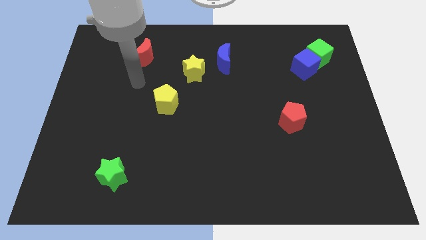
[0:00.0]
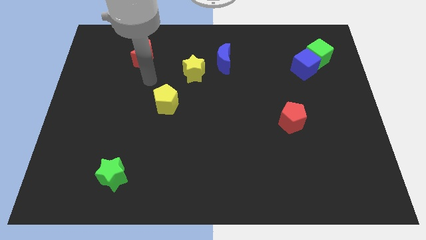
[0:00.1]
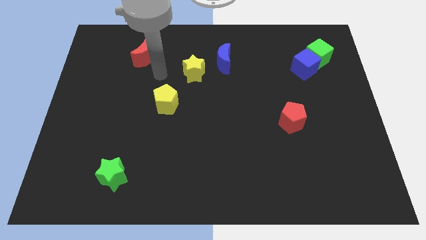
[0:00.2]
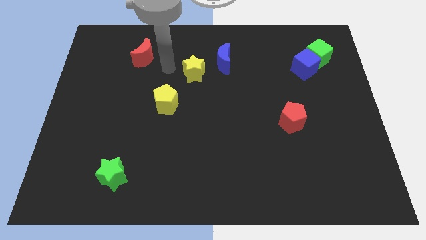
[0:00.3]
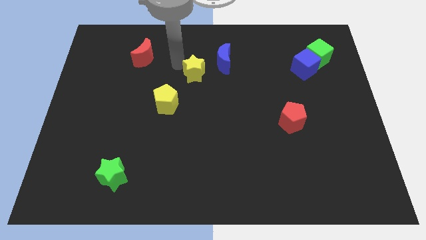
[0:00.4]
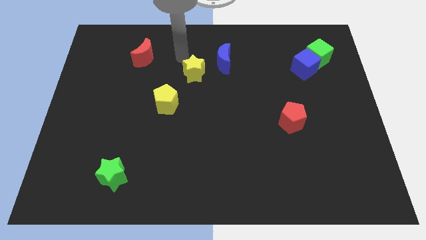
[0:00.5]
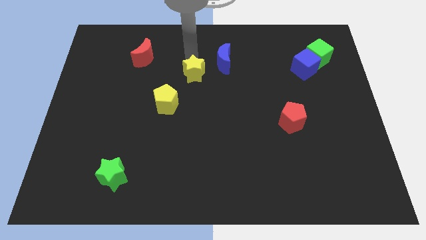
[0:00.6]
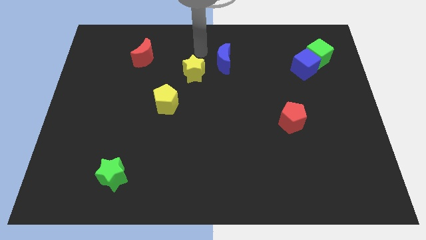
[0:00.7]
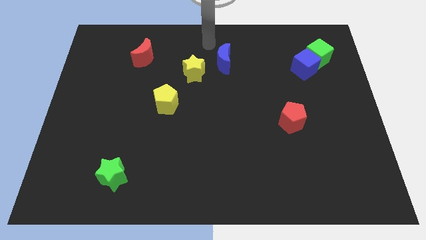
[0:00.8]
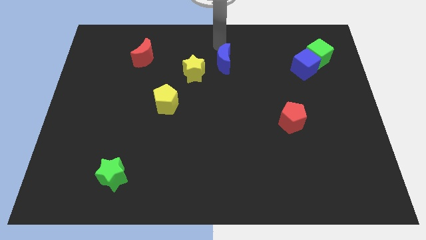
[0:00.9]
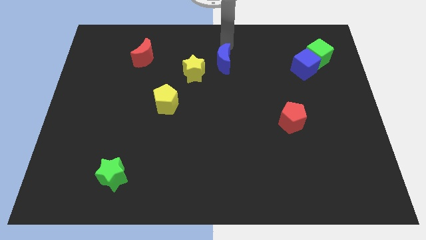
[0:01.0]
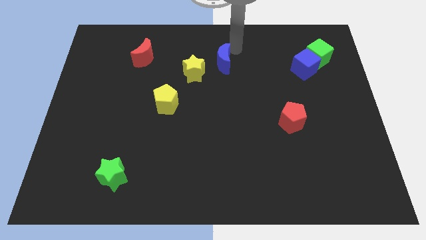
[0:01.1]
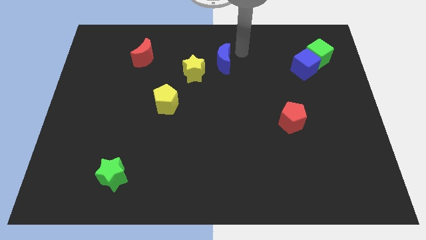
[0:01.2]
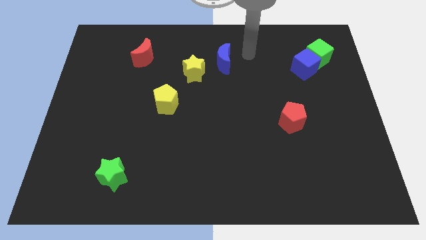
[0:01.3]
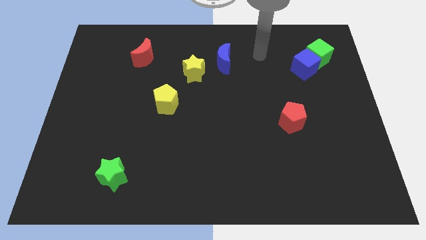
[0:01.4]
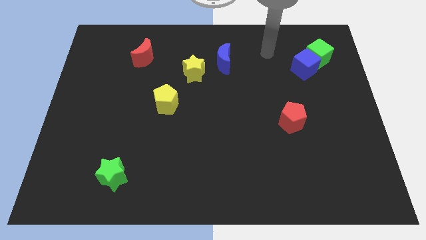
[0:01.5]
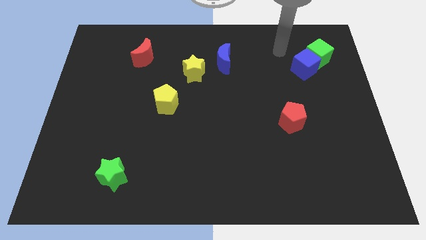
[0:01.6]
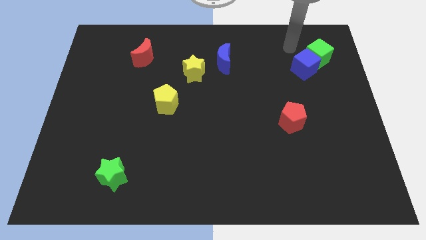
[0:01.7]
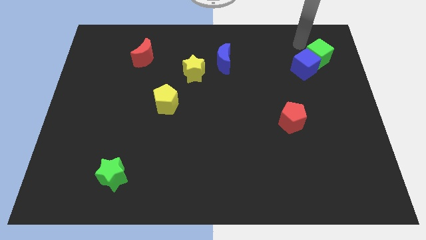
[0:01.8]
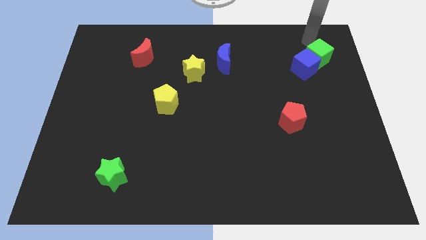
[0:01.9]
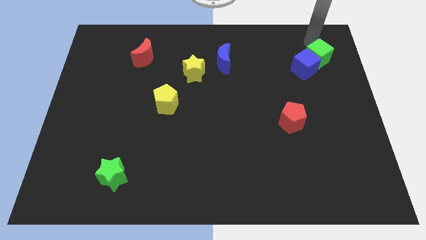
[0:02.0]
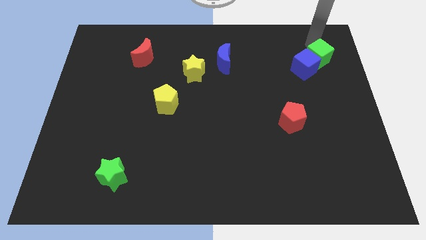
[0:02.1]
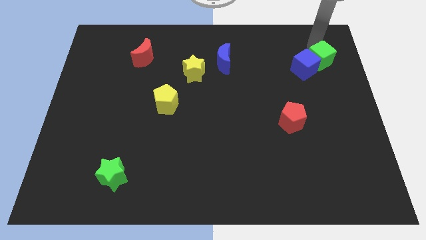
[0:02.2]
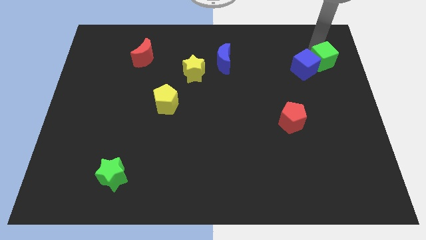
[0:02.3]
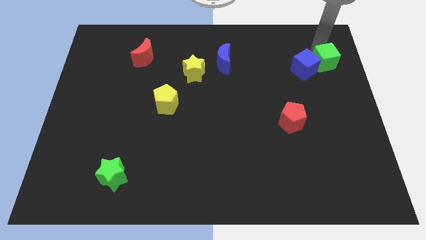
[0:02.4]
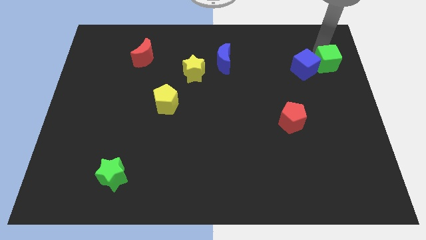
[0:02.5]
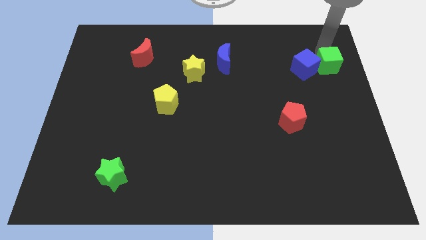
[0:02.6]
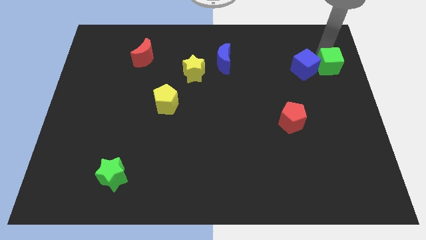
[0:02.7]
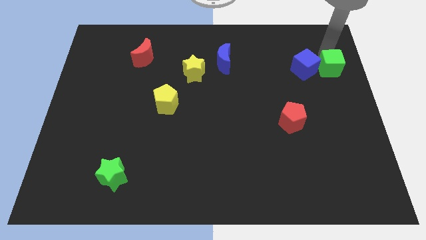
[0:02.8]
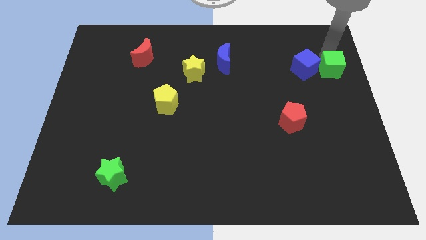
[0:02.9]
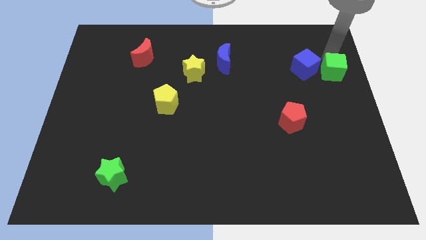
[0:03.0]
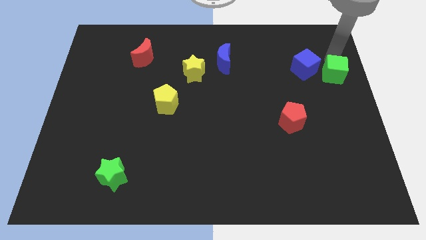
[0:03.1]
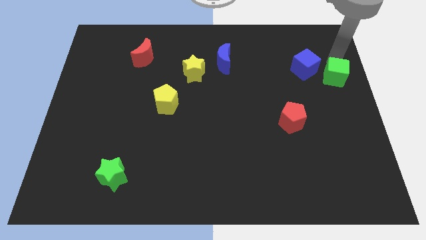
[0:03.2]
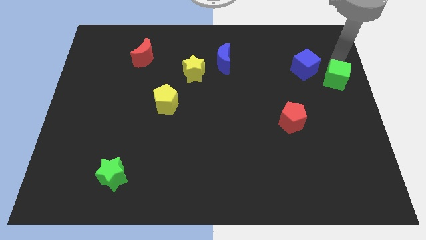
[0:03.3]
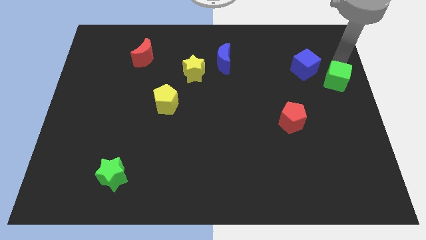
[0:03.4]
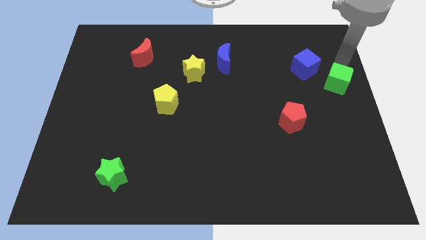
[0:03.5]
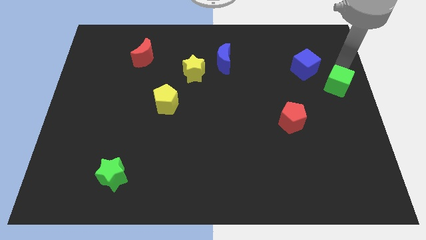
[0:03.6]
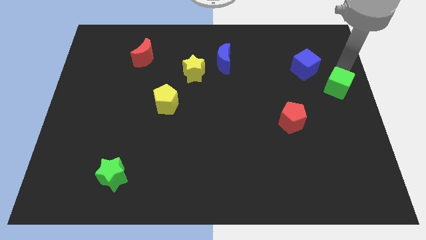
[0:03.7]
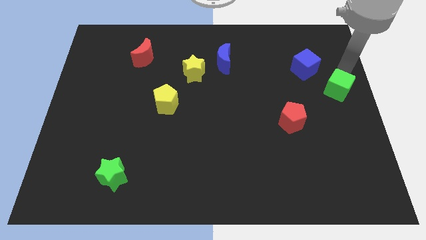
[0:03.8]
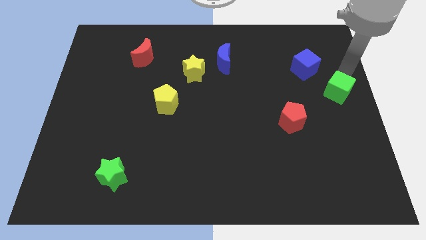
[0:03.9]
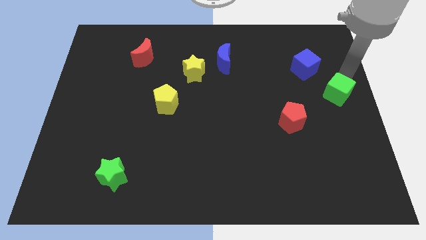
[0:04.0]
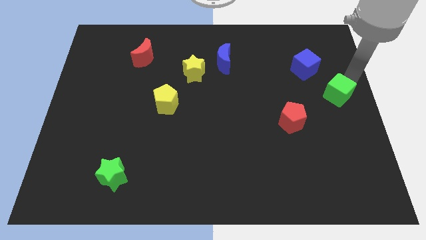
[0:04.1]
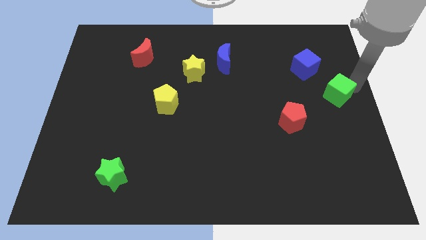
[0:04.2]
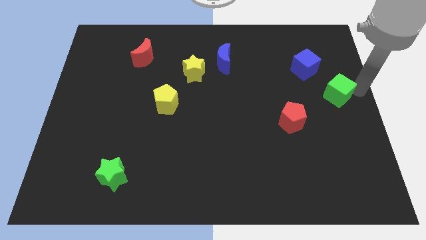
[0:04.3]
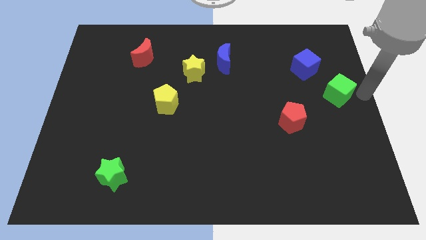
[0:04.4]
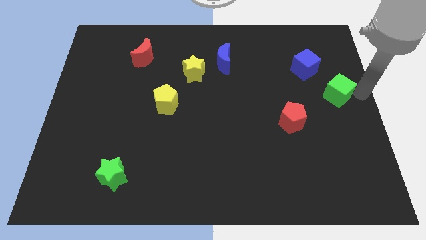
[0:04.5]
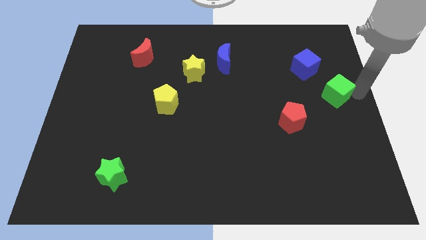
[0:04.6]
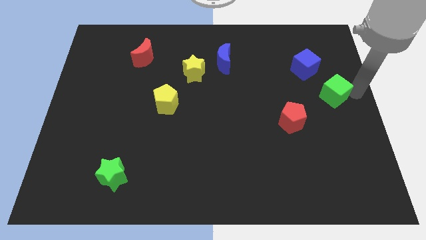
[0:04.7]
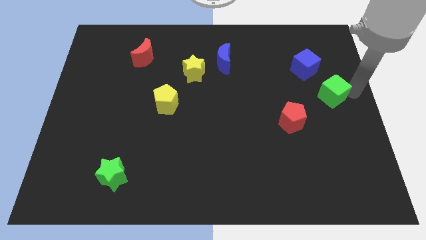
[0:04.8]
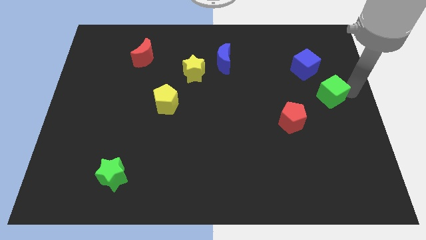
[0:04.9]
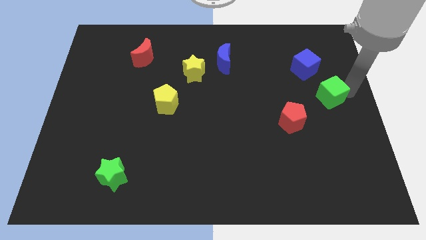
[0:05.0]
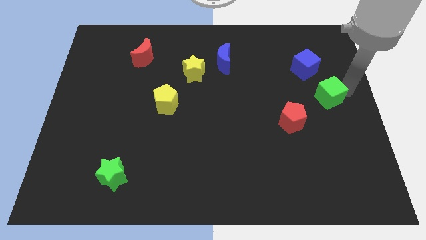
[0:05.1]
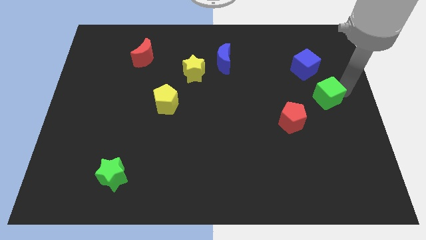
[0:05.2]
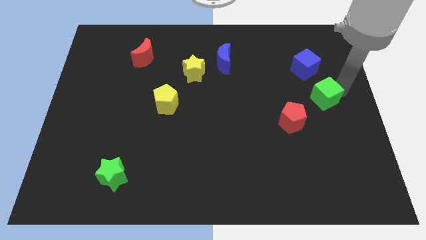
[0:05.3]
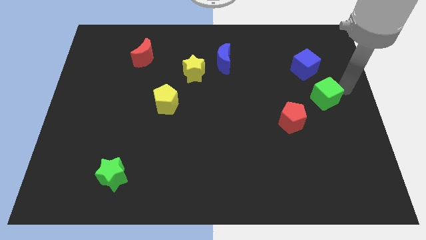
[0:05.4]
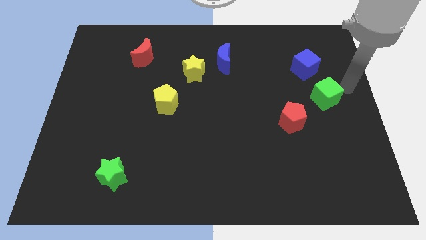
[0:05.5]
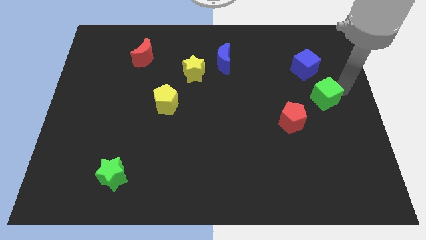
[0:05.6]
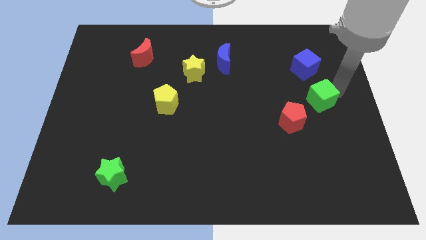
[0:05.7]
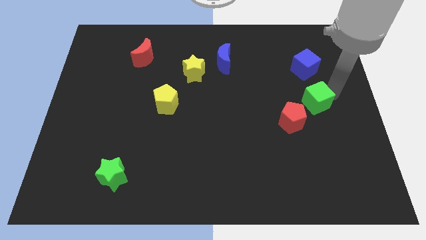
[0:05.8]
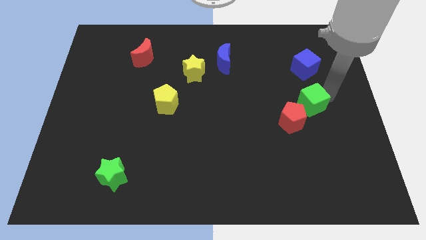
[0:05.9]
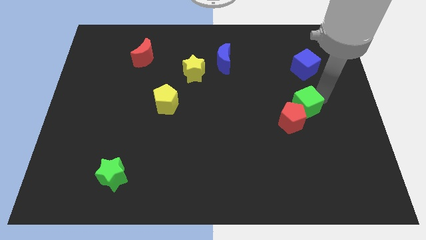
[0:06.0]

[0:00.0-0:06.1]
put the green cube to the red pentagon

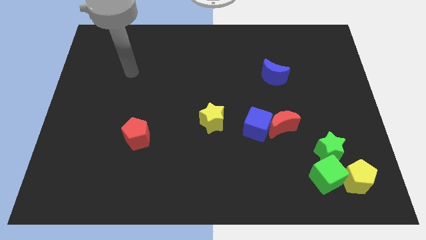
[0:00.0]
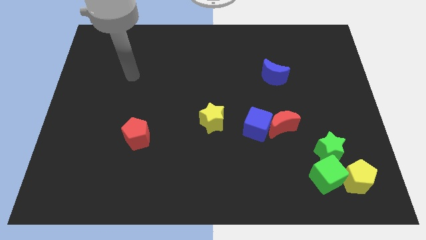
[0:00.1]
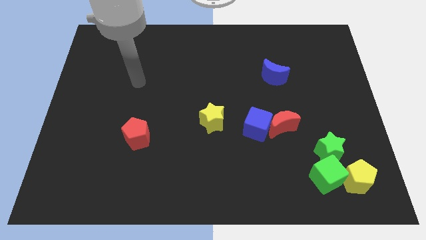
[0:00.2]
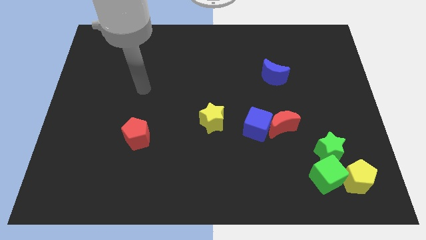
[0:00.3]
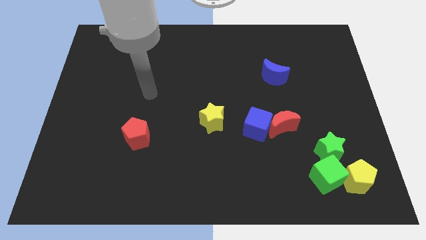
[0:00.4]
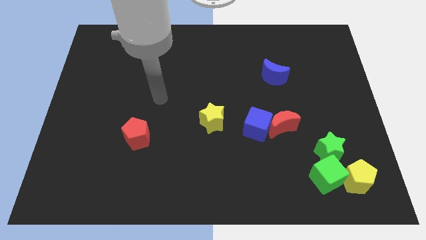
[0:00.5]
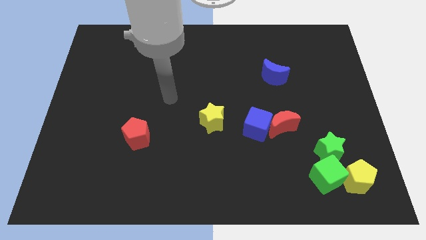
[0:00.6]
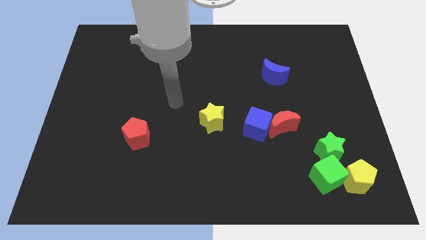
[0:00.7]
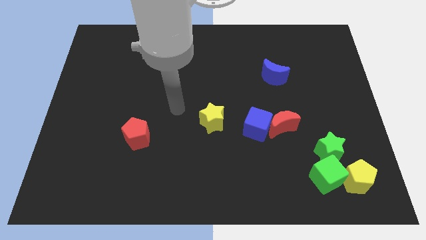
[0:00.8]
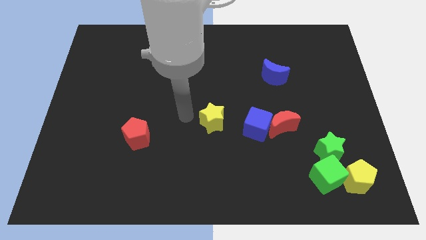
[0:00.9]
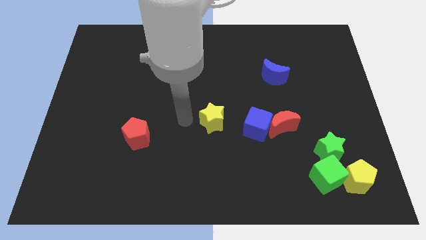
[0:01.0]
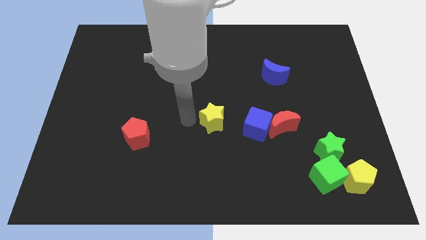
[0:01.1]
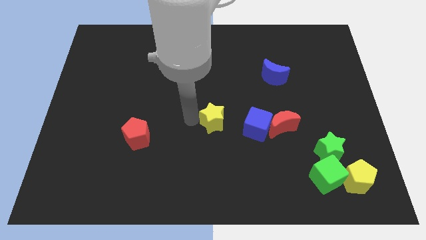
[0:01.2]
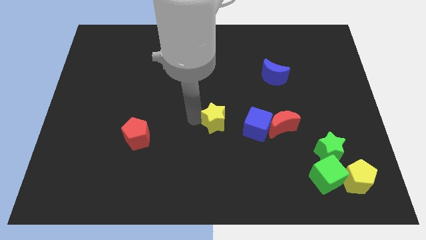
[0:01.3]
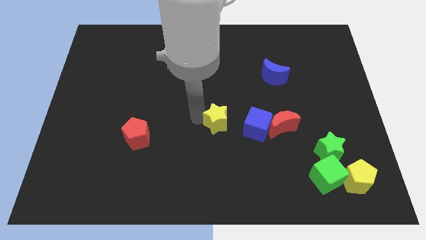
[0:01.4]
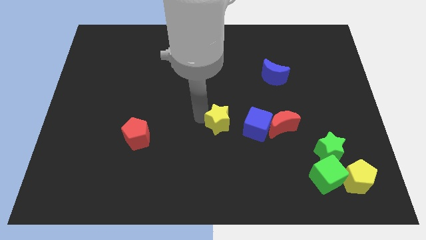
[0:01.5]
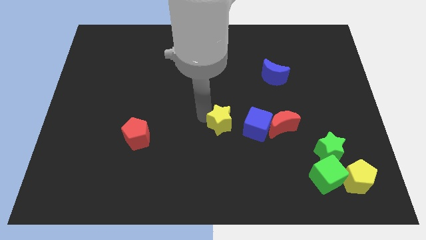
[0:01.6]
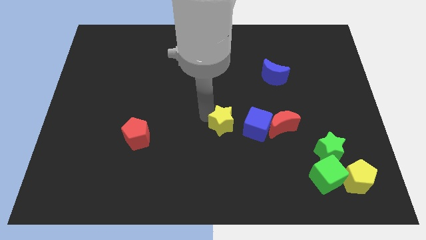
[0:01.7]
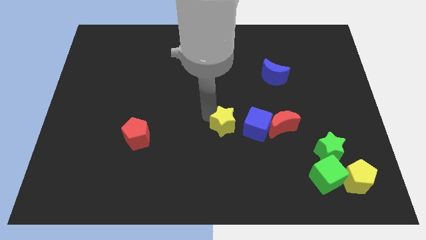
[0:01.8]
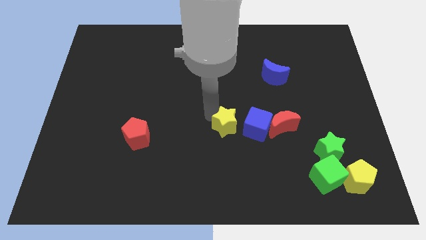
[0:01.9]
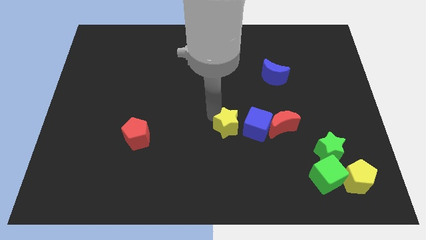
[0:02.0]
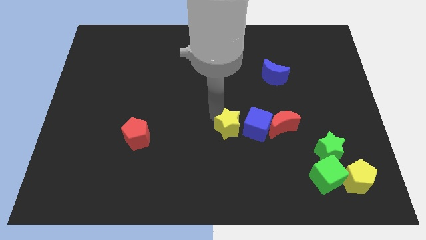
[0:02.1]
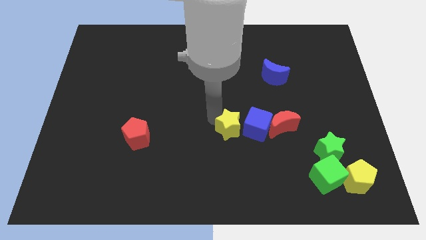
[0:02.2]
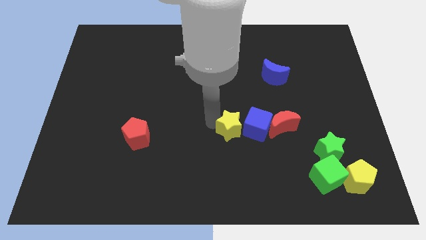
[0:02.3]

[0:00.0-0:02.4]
push the yellow star to the blue cube
